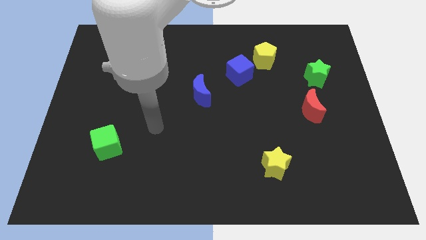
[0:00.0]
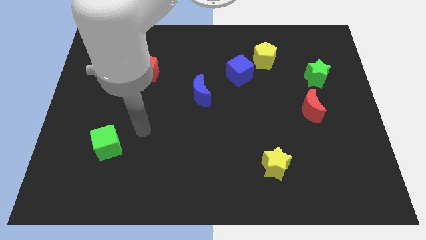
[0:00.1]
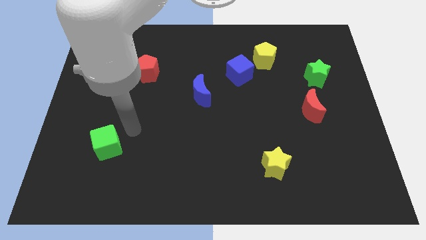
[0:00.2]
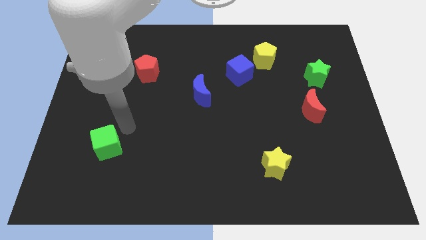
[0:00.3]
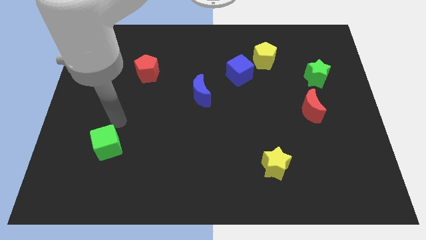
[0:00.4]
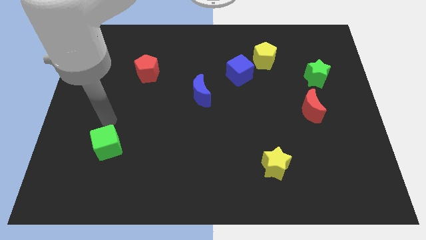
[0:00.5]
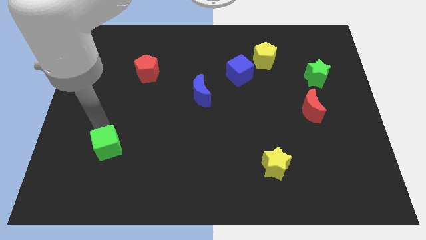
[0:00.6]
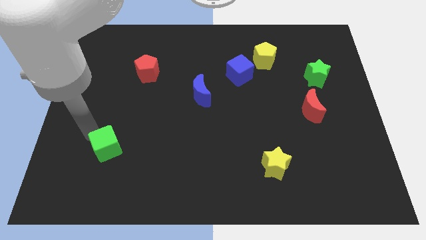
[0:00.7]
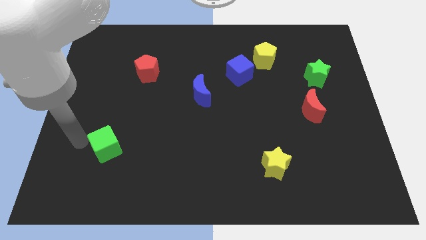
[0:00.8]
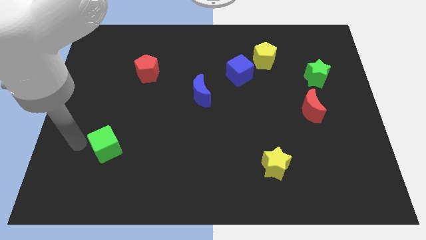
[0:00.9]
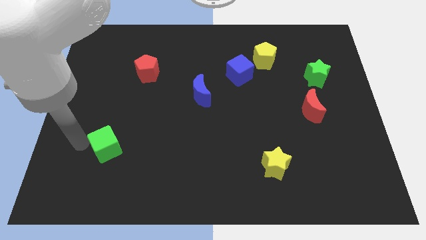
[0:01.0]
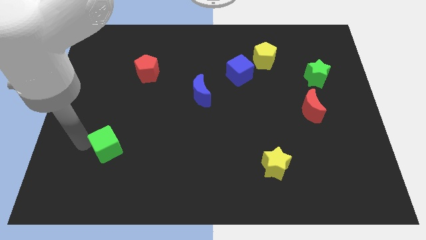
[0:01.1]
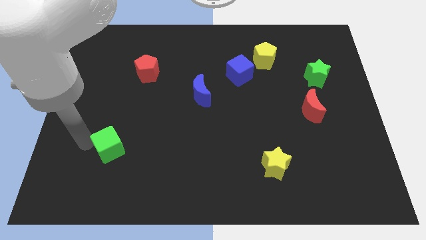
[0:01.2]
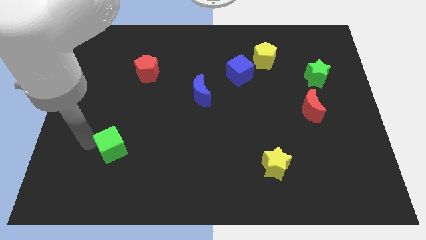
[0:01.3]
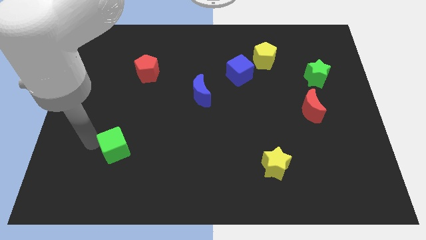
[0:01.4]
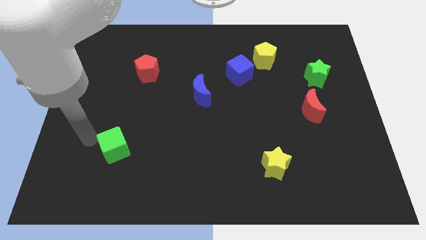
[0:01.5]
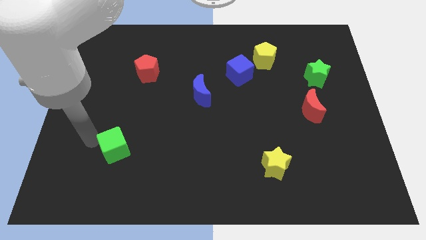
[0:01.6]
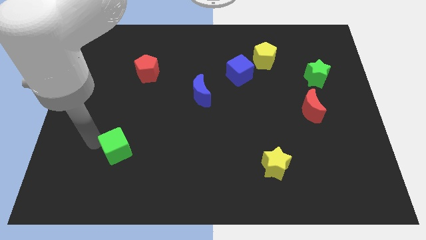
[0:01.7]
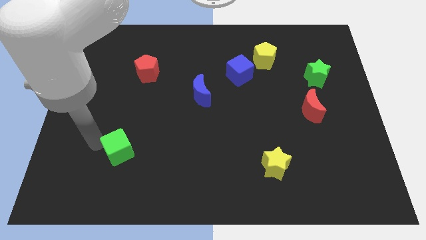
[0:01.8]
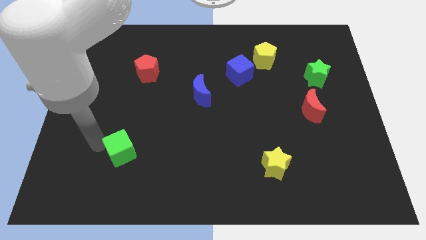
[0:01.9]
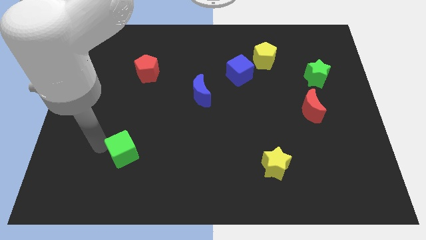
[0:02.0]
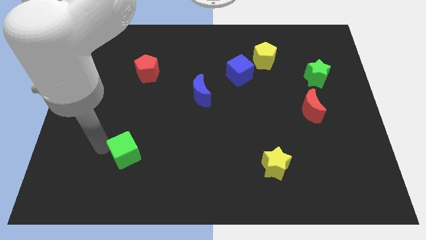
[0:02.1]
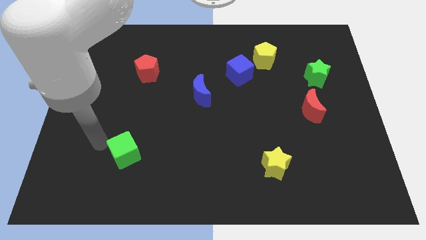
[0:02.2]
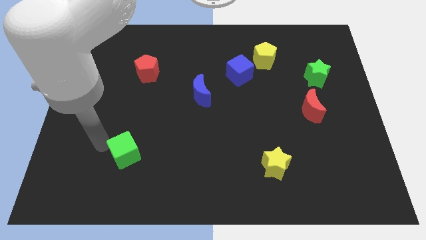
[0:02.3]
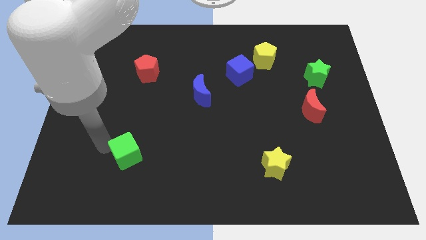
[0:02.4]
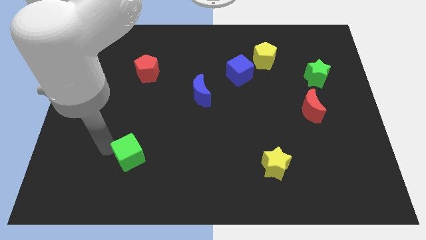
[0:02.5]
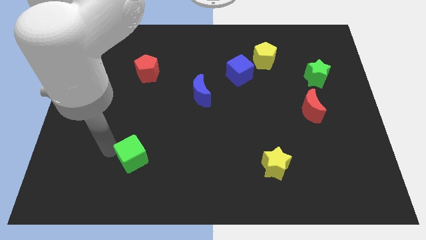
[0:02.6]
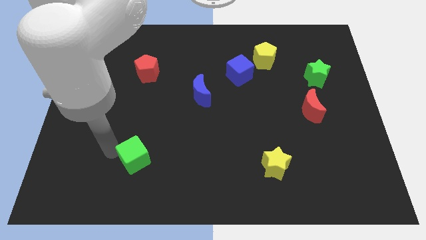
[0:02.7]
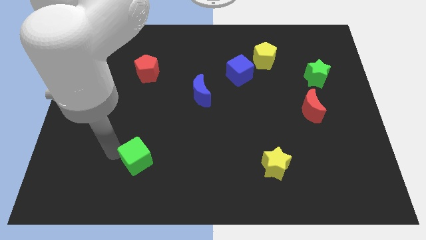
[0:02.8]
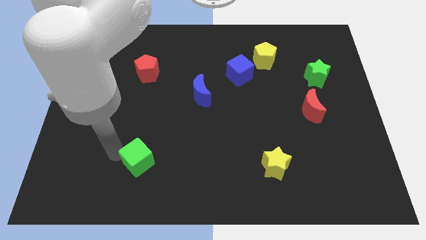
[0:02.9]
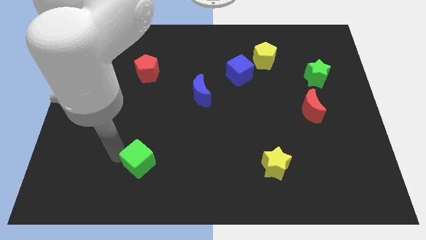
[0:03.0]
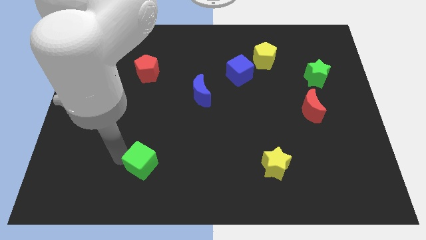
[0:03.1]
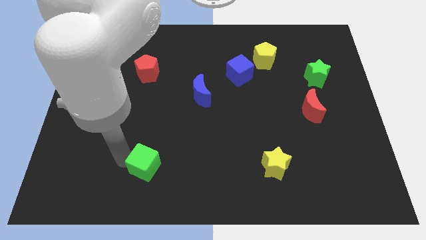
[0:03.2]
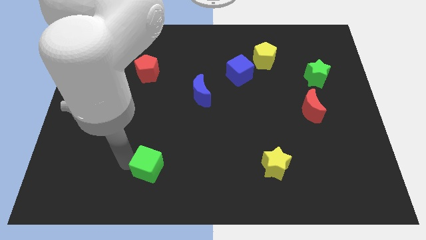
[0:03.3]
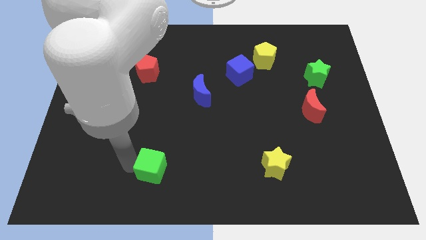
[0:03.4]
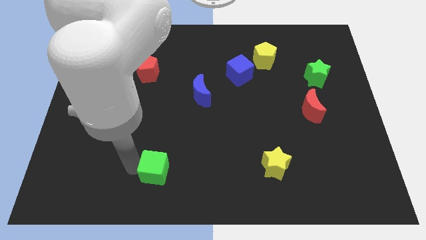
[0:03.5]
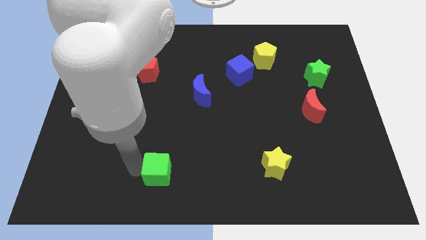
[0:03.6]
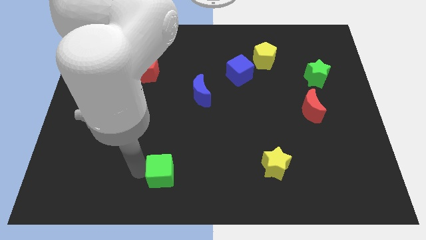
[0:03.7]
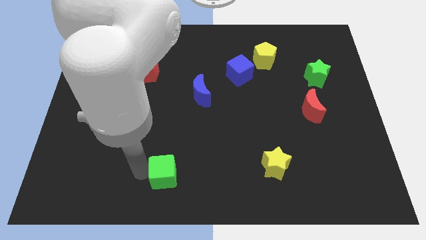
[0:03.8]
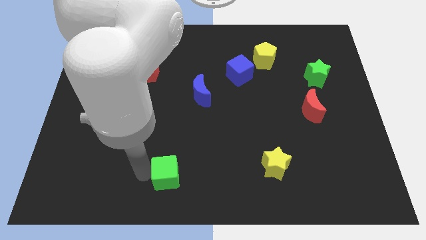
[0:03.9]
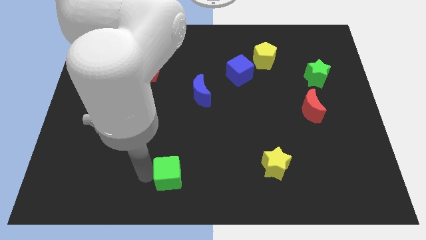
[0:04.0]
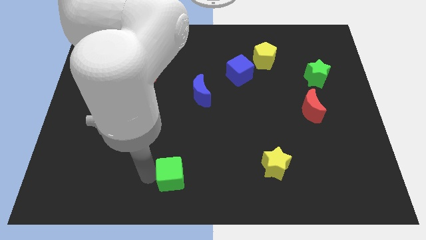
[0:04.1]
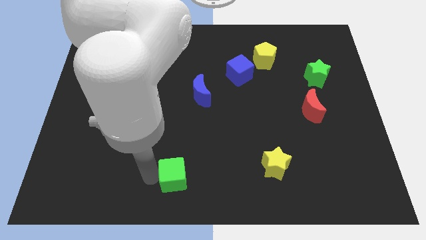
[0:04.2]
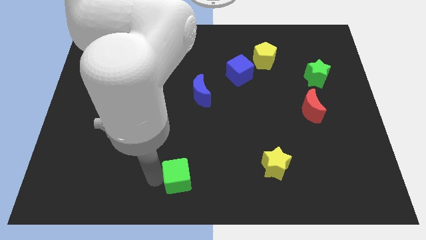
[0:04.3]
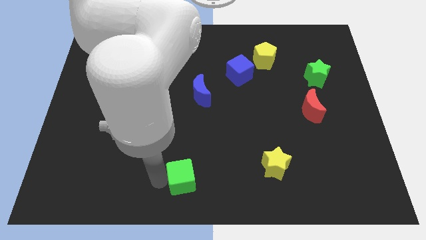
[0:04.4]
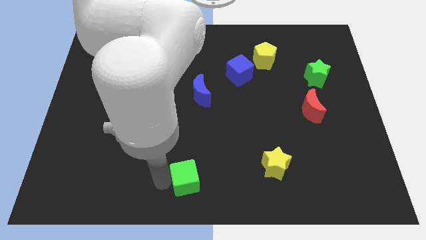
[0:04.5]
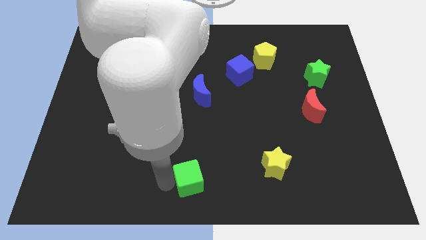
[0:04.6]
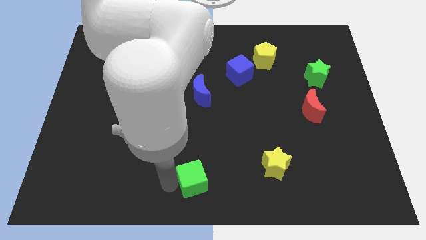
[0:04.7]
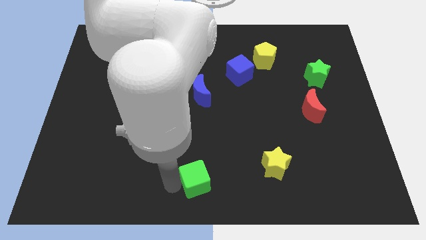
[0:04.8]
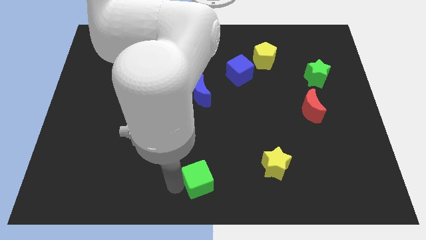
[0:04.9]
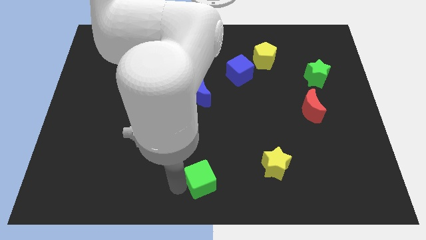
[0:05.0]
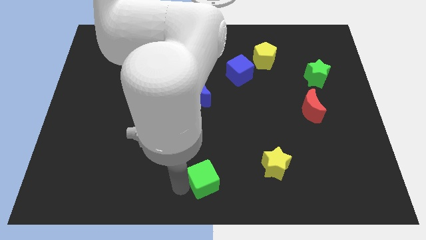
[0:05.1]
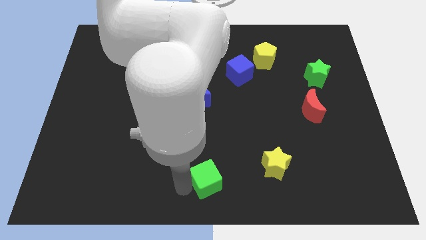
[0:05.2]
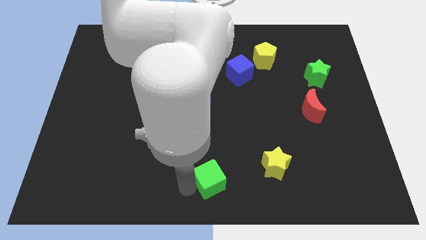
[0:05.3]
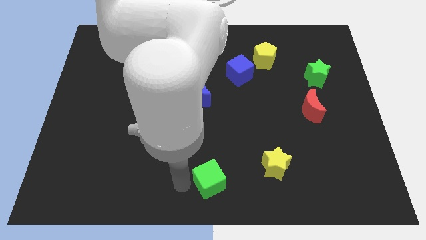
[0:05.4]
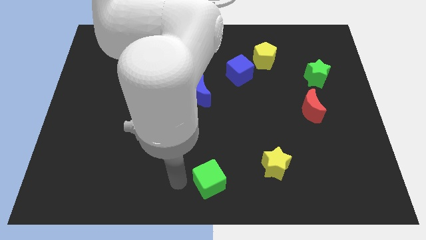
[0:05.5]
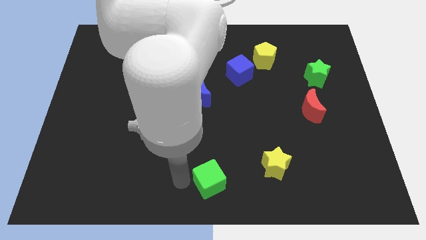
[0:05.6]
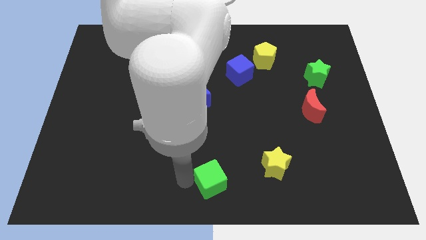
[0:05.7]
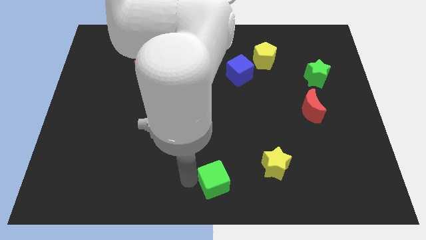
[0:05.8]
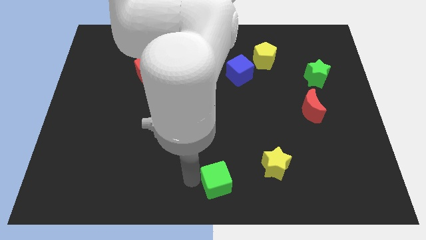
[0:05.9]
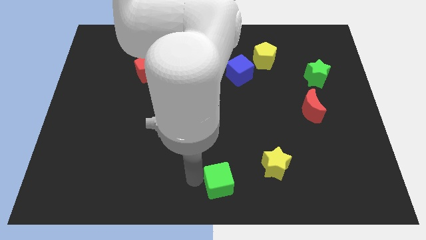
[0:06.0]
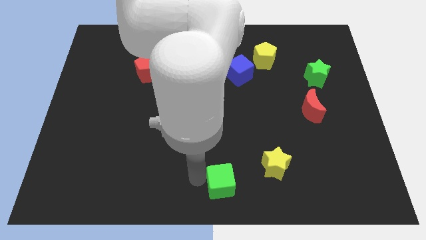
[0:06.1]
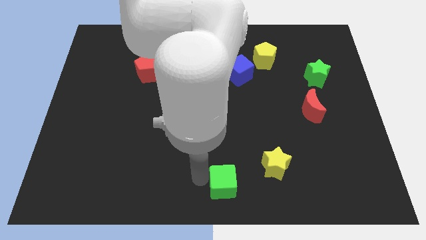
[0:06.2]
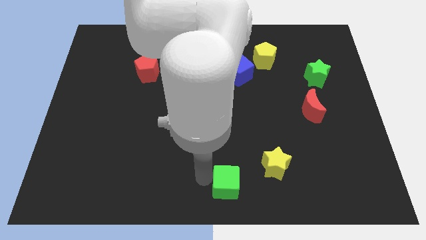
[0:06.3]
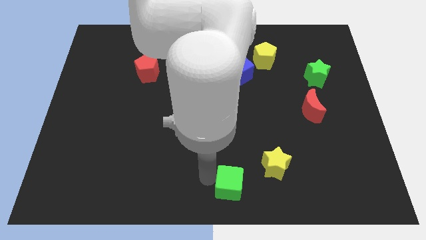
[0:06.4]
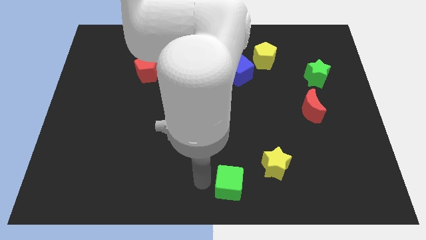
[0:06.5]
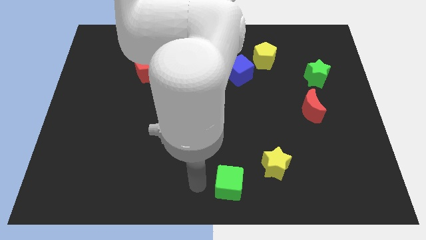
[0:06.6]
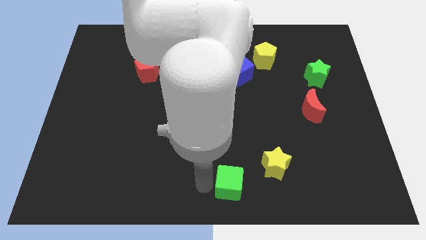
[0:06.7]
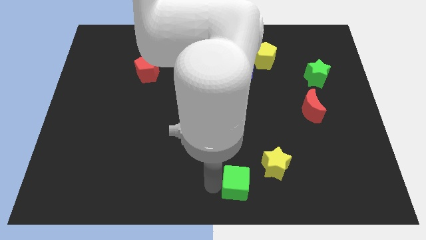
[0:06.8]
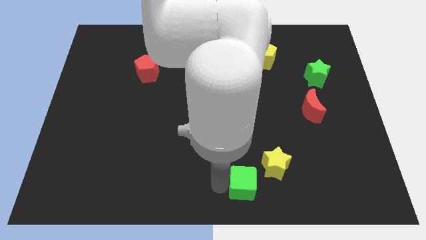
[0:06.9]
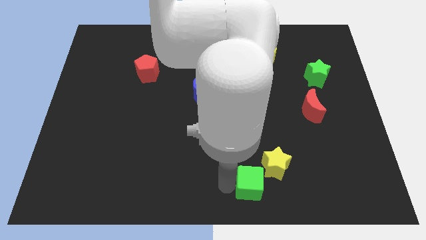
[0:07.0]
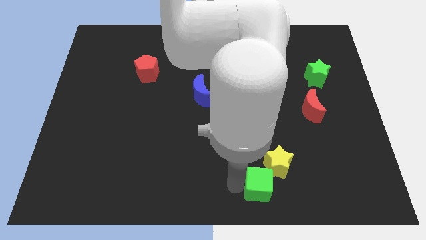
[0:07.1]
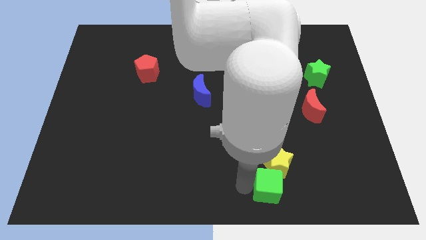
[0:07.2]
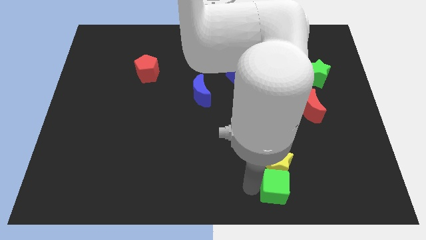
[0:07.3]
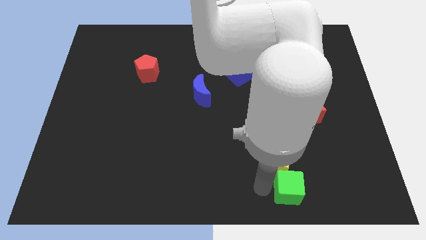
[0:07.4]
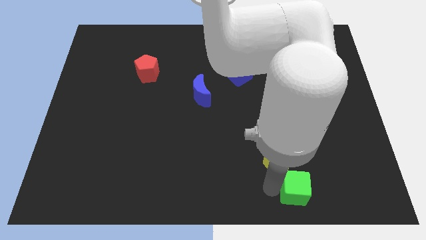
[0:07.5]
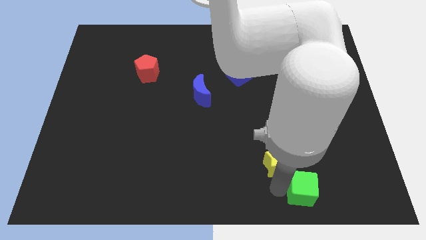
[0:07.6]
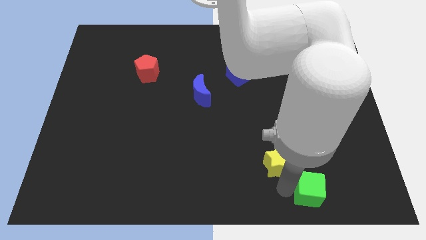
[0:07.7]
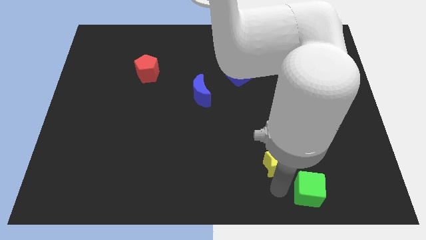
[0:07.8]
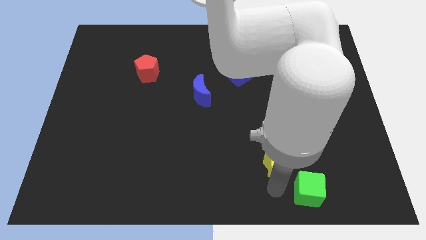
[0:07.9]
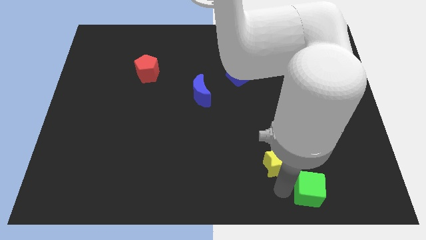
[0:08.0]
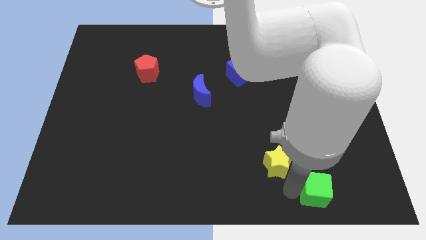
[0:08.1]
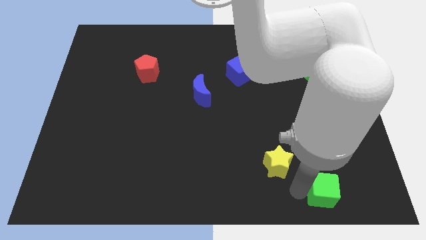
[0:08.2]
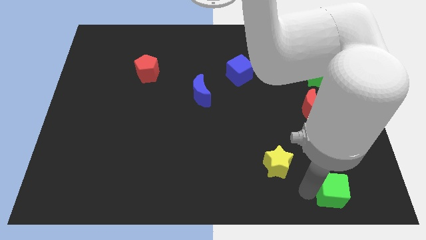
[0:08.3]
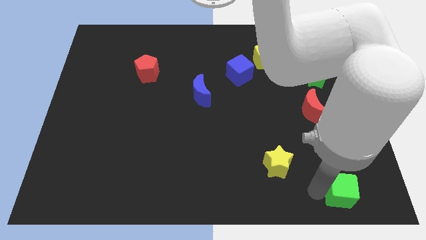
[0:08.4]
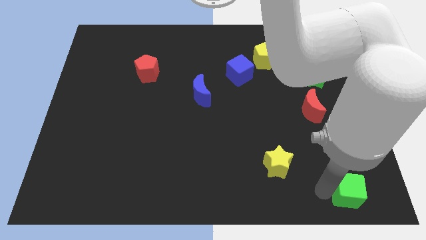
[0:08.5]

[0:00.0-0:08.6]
move the green cube to the bottom right corner
